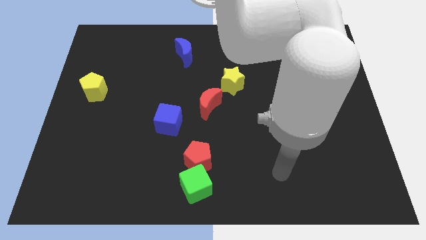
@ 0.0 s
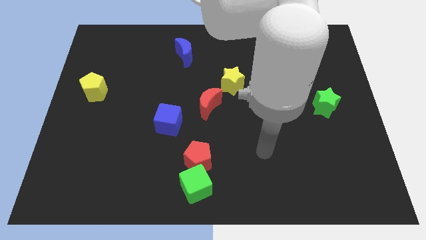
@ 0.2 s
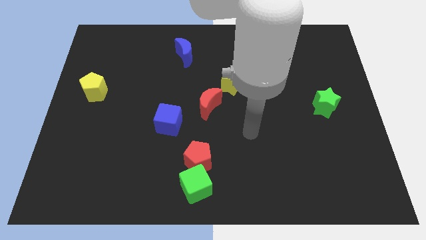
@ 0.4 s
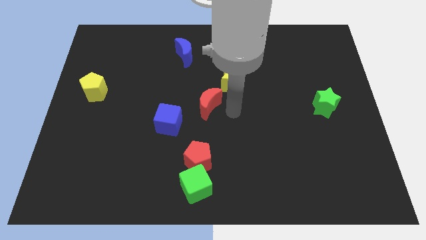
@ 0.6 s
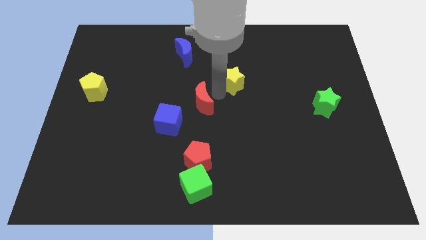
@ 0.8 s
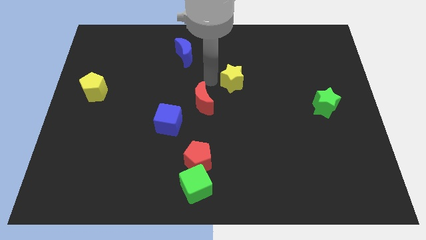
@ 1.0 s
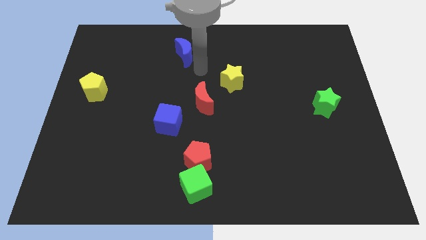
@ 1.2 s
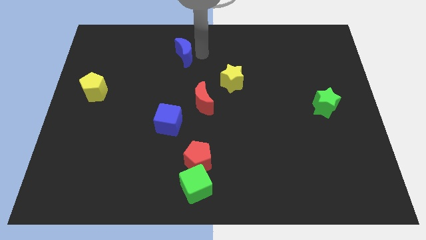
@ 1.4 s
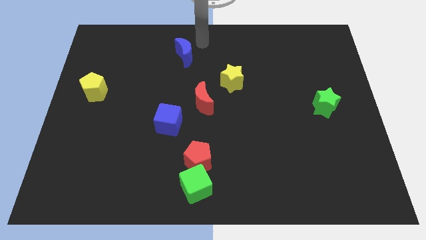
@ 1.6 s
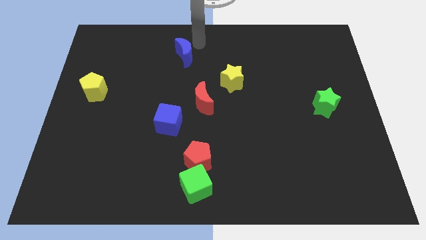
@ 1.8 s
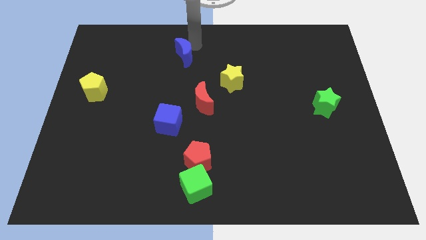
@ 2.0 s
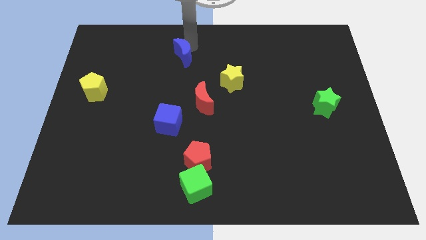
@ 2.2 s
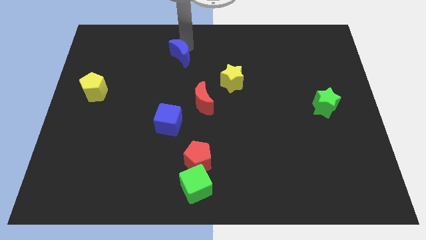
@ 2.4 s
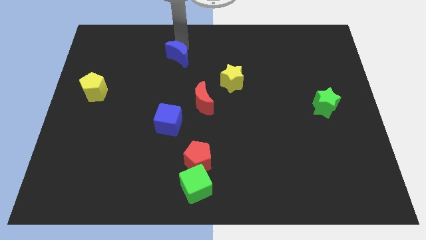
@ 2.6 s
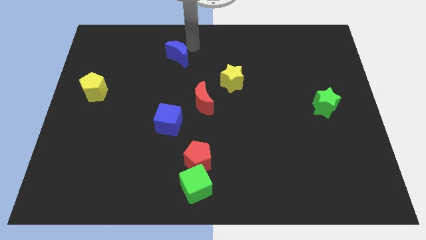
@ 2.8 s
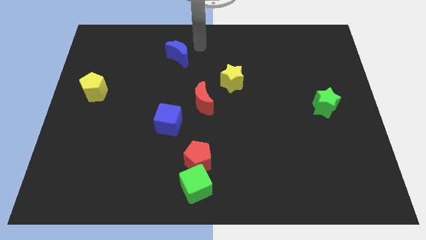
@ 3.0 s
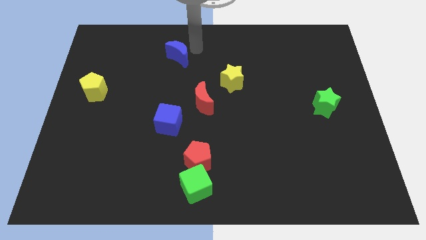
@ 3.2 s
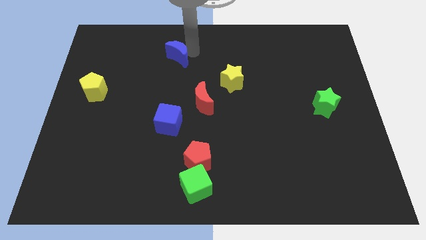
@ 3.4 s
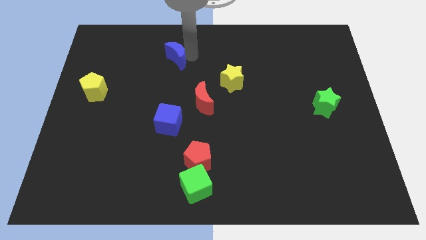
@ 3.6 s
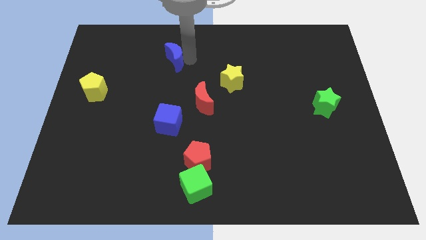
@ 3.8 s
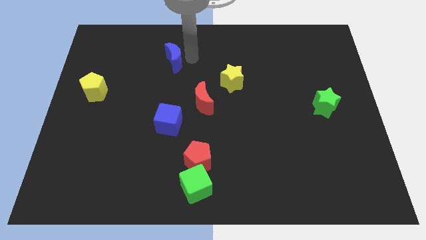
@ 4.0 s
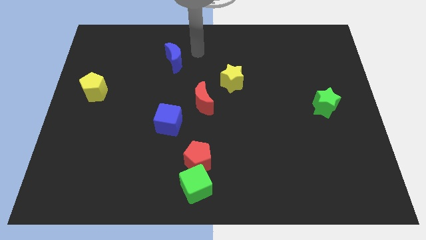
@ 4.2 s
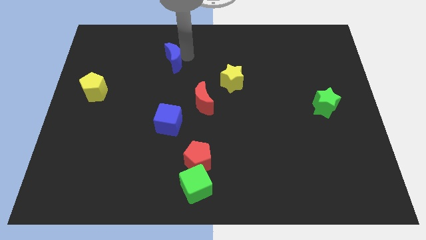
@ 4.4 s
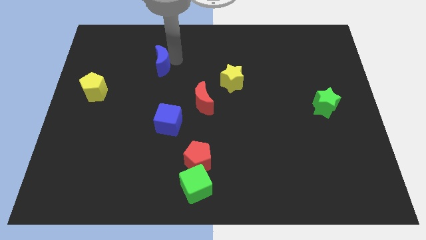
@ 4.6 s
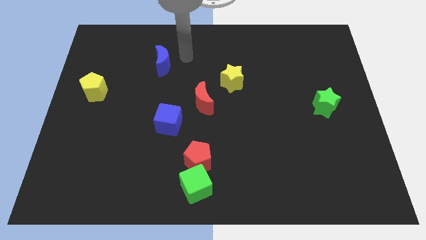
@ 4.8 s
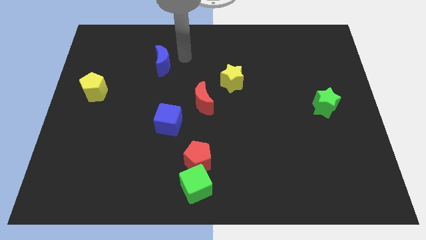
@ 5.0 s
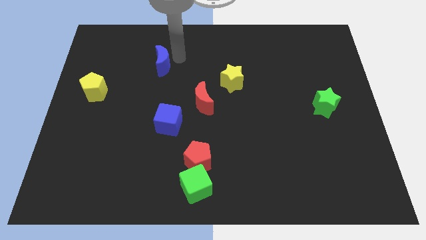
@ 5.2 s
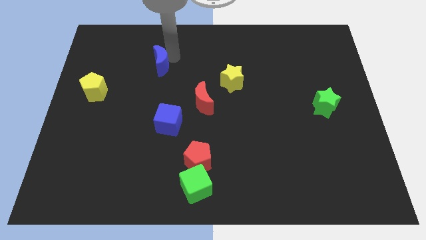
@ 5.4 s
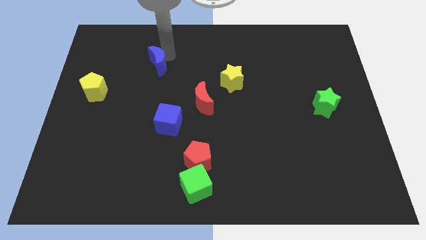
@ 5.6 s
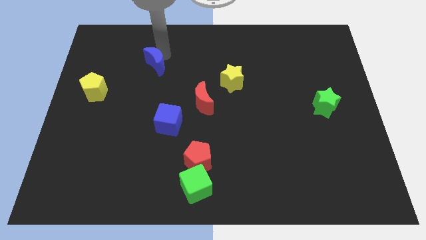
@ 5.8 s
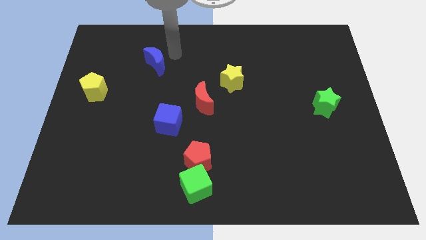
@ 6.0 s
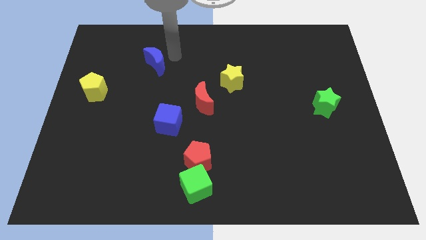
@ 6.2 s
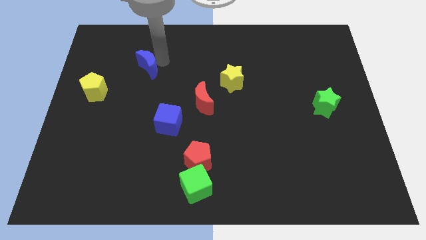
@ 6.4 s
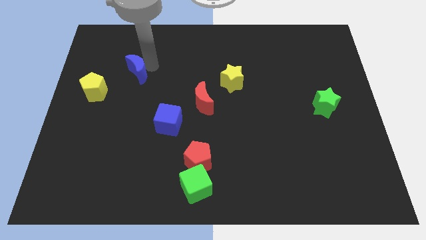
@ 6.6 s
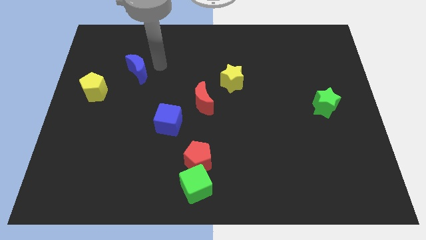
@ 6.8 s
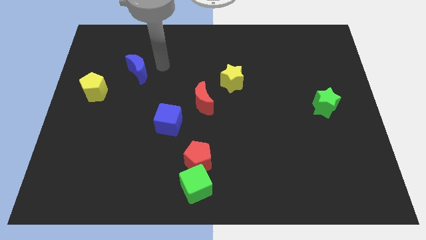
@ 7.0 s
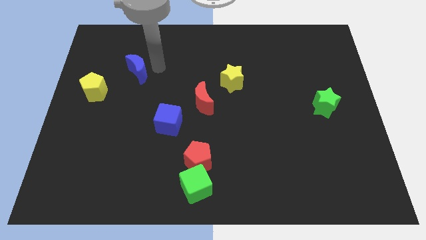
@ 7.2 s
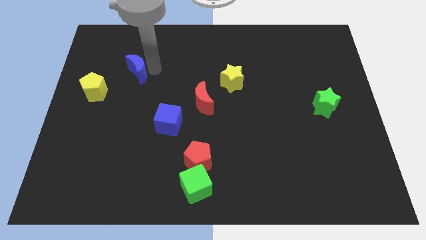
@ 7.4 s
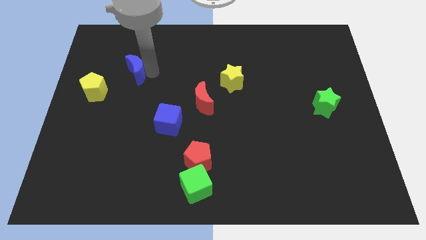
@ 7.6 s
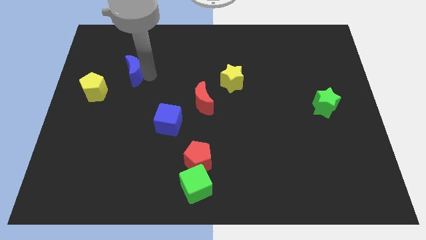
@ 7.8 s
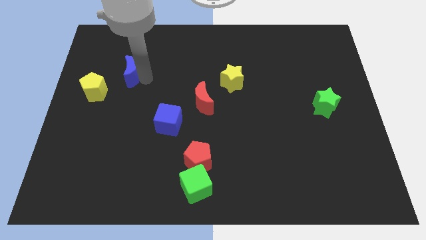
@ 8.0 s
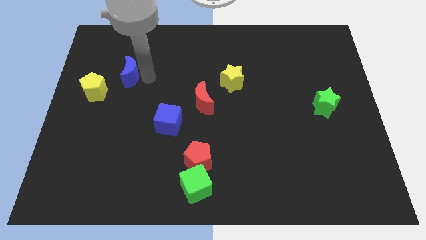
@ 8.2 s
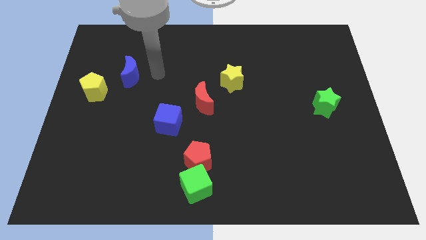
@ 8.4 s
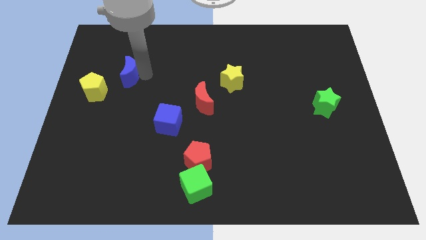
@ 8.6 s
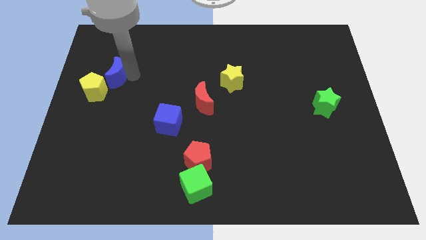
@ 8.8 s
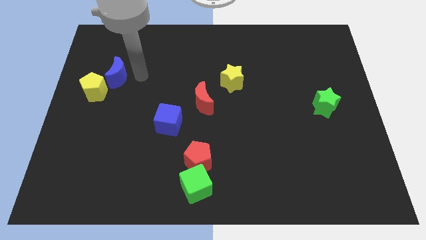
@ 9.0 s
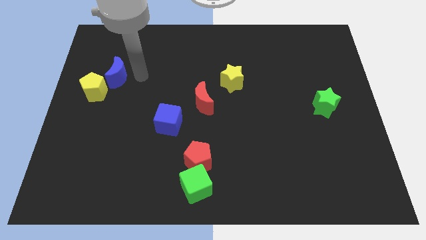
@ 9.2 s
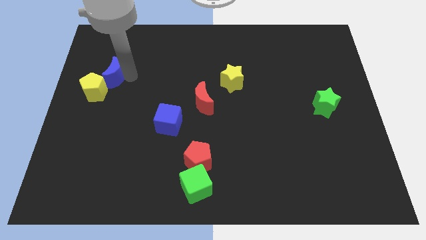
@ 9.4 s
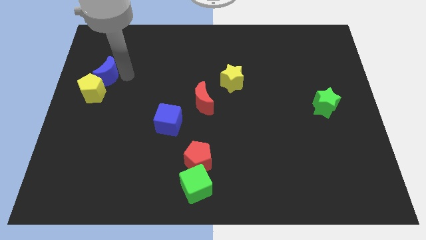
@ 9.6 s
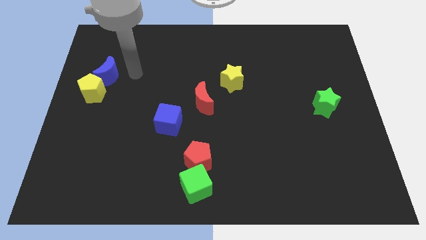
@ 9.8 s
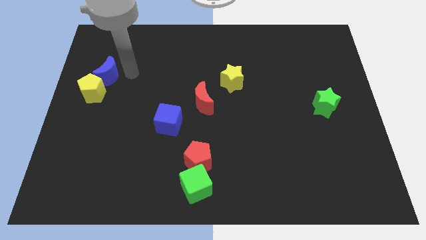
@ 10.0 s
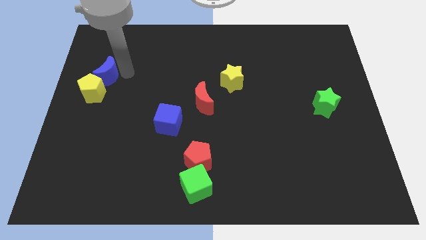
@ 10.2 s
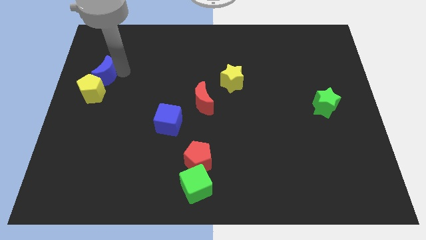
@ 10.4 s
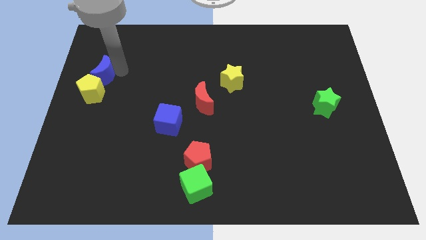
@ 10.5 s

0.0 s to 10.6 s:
put the blue moon to the left side

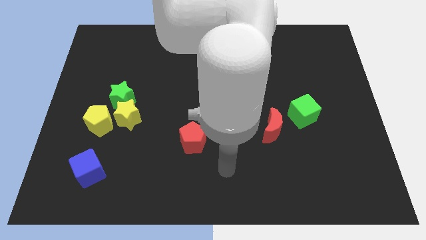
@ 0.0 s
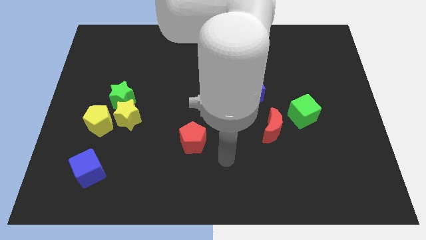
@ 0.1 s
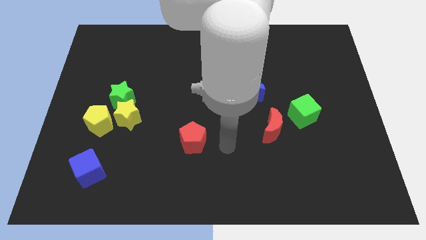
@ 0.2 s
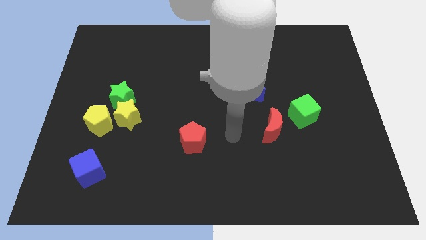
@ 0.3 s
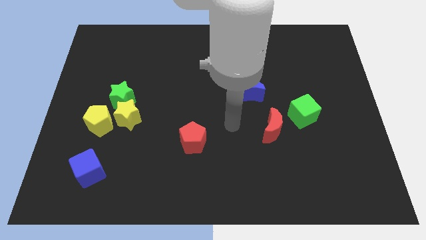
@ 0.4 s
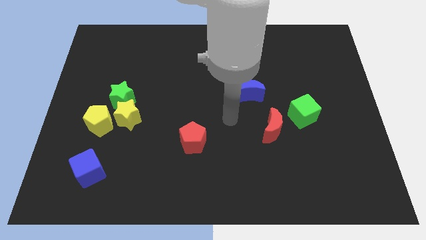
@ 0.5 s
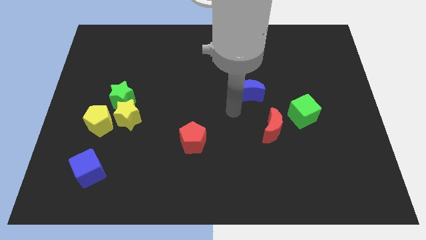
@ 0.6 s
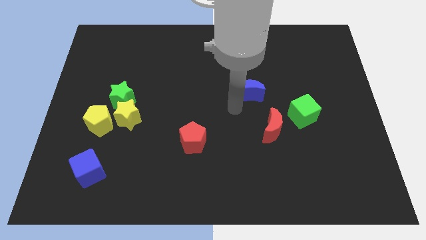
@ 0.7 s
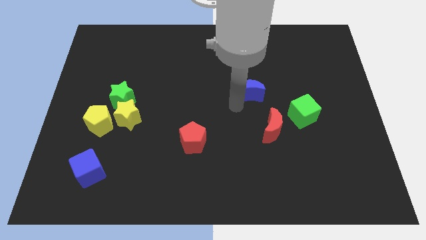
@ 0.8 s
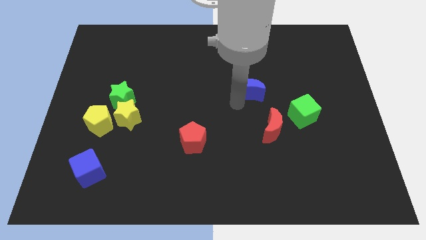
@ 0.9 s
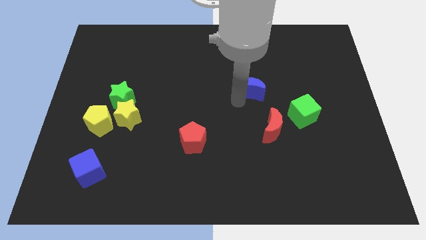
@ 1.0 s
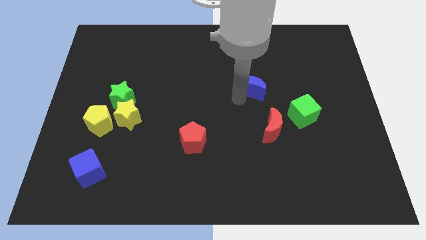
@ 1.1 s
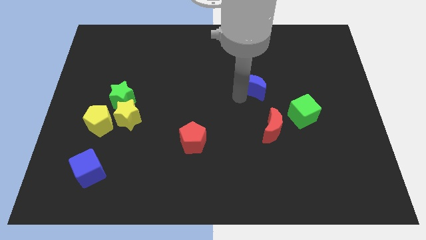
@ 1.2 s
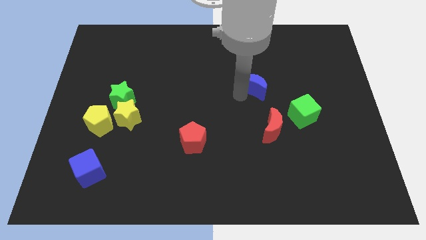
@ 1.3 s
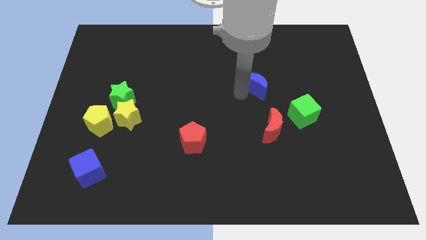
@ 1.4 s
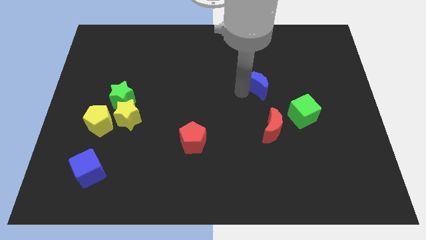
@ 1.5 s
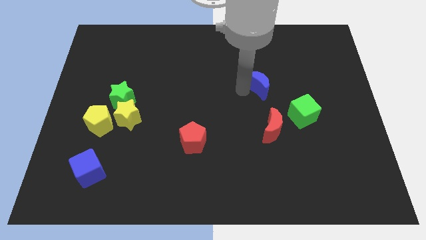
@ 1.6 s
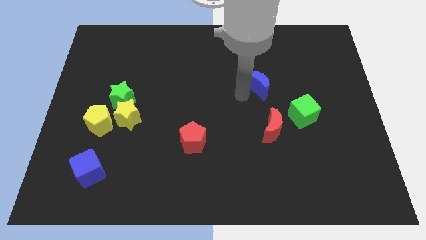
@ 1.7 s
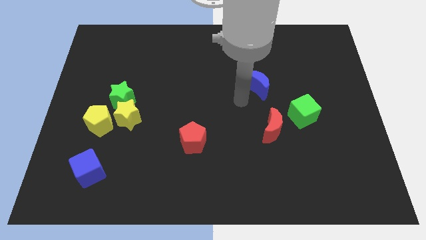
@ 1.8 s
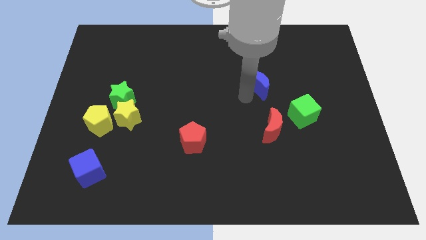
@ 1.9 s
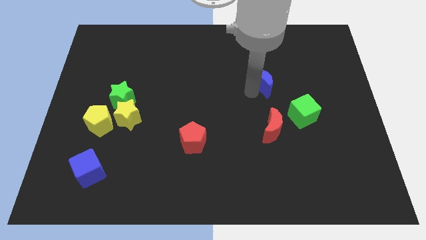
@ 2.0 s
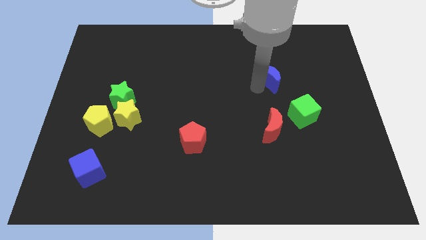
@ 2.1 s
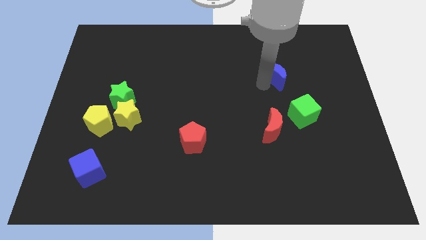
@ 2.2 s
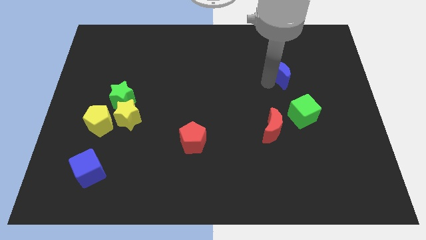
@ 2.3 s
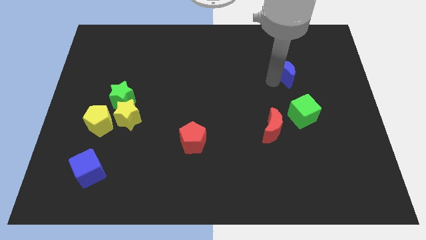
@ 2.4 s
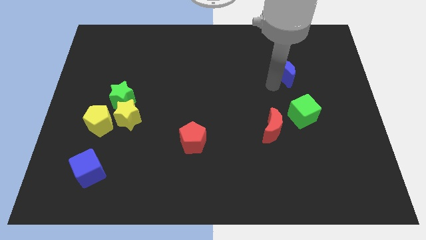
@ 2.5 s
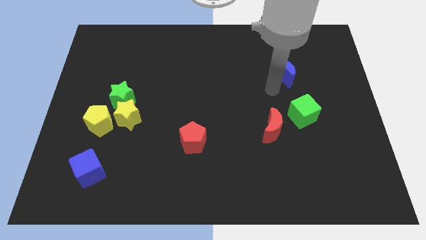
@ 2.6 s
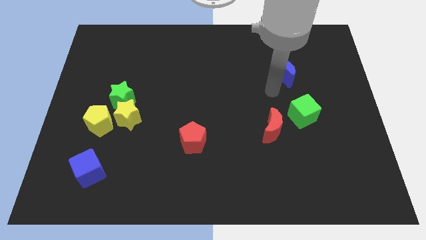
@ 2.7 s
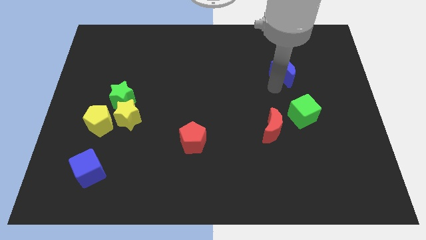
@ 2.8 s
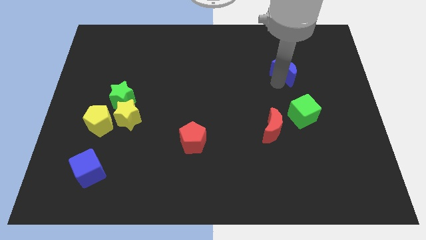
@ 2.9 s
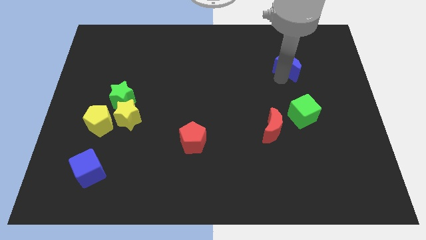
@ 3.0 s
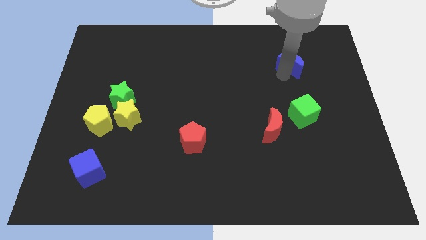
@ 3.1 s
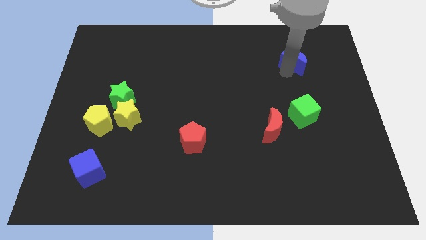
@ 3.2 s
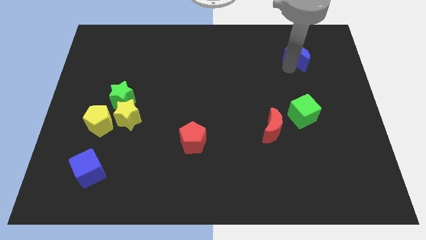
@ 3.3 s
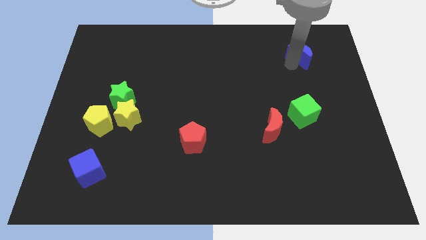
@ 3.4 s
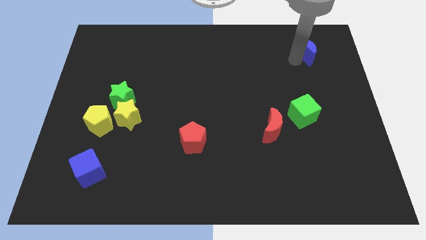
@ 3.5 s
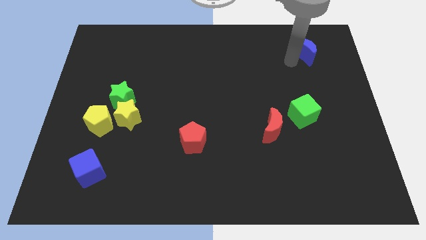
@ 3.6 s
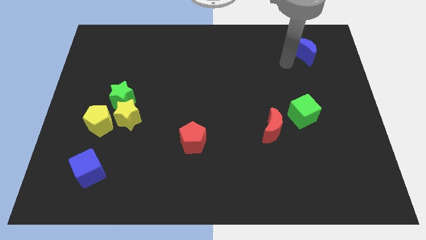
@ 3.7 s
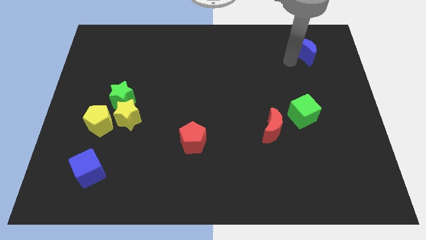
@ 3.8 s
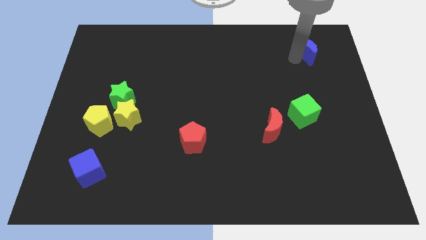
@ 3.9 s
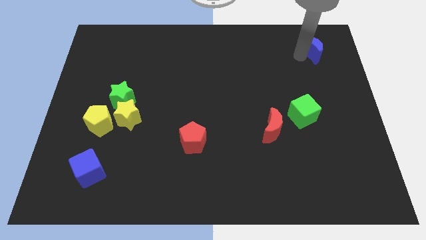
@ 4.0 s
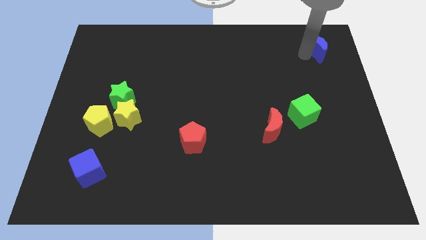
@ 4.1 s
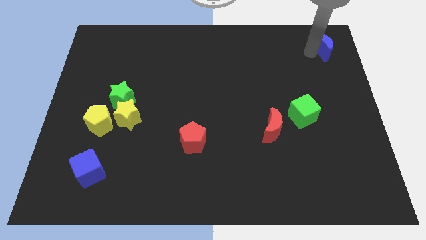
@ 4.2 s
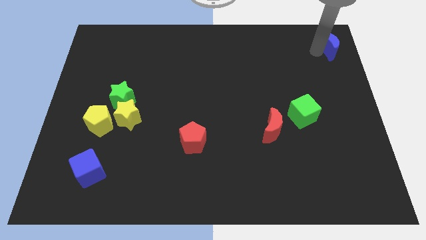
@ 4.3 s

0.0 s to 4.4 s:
move the blue moon to the top right corner
